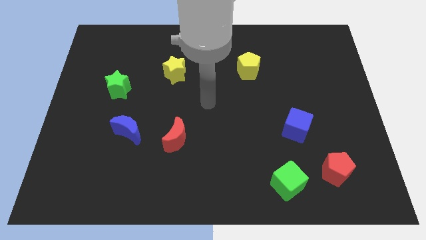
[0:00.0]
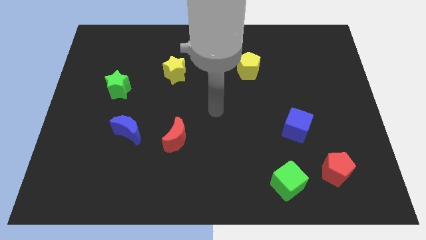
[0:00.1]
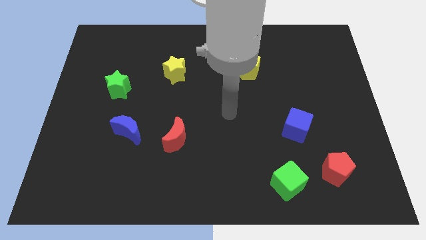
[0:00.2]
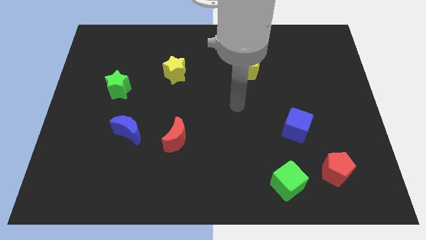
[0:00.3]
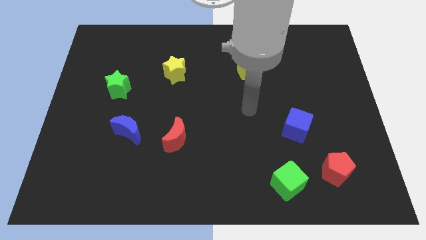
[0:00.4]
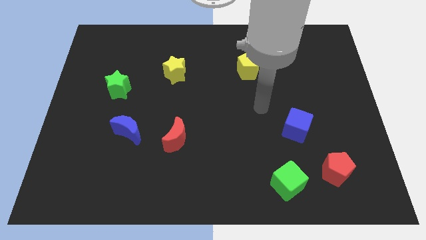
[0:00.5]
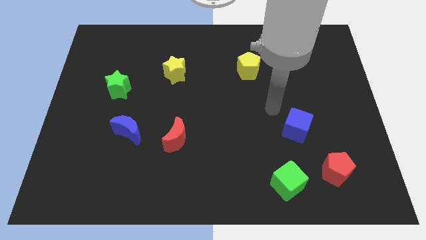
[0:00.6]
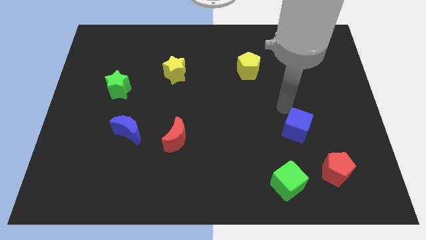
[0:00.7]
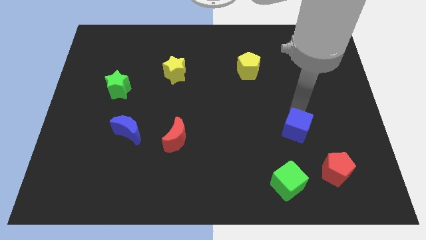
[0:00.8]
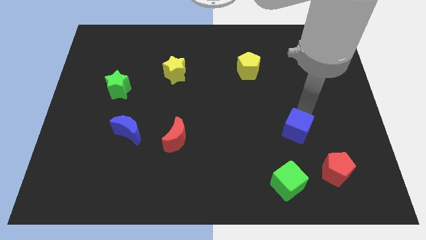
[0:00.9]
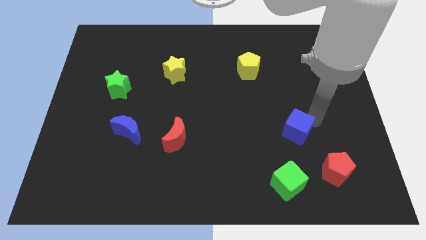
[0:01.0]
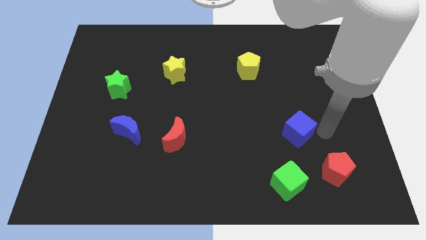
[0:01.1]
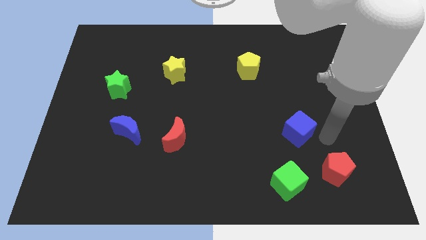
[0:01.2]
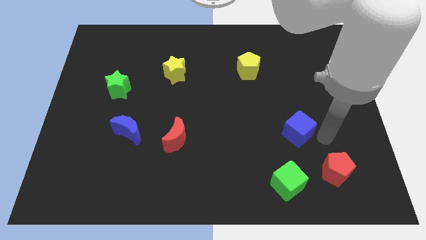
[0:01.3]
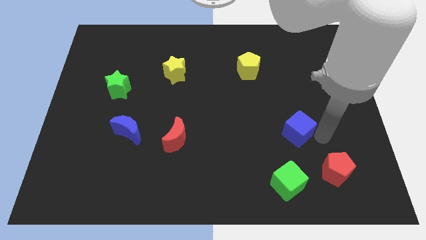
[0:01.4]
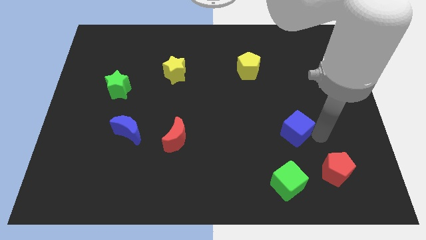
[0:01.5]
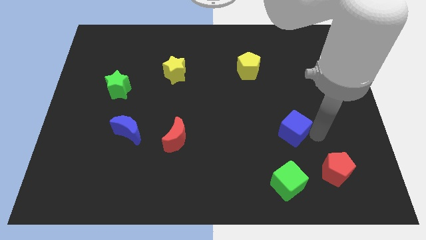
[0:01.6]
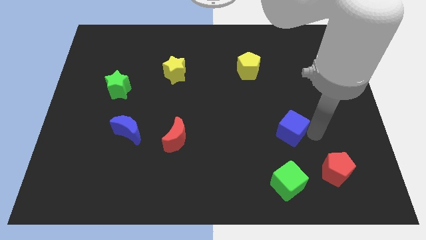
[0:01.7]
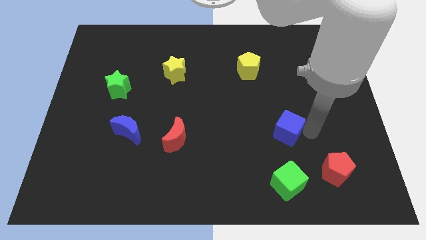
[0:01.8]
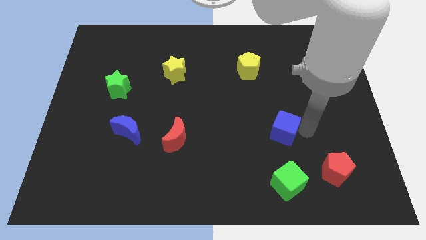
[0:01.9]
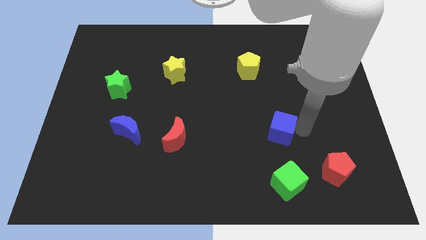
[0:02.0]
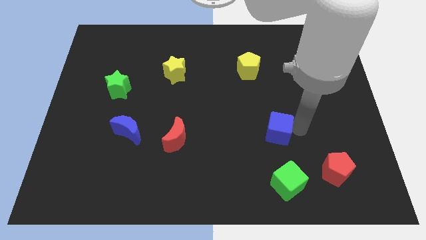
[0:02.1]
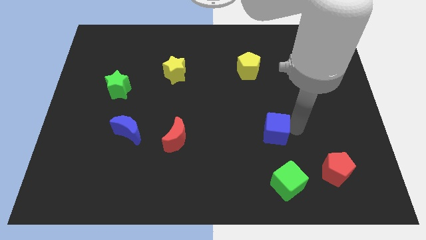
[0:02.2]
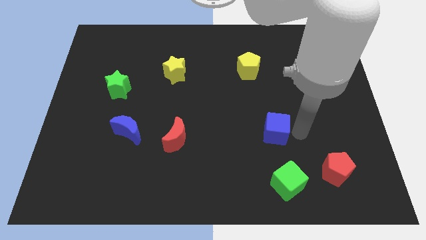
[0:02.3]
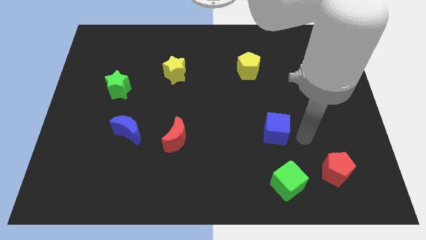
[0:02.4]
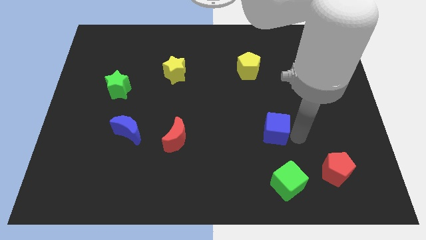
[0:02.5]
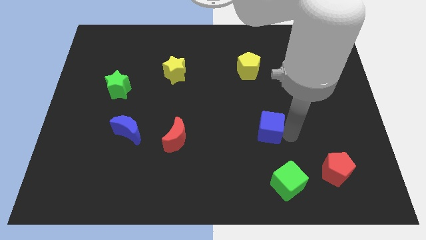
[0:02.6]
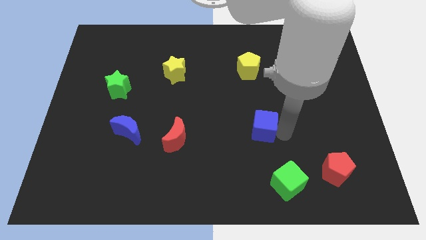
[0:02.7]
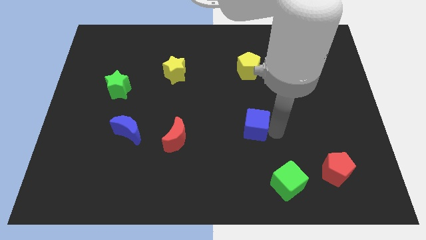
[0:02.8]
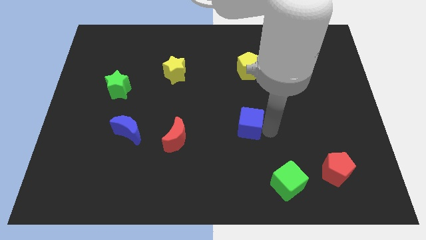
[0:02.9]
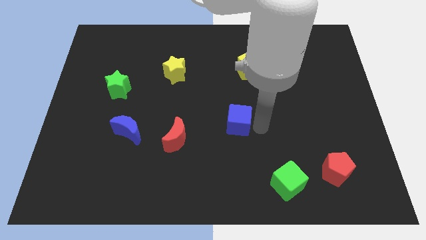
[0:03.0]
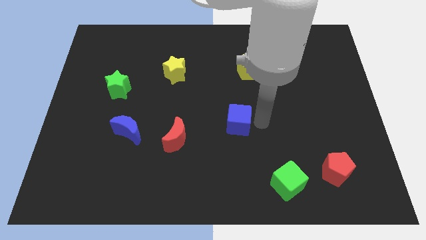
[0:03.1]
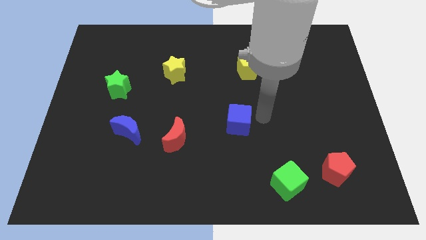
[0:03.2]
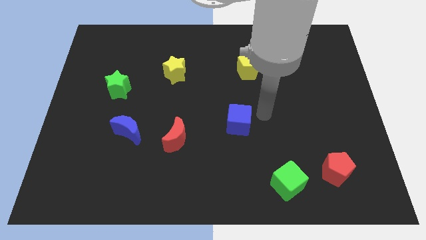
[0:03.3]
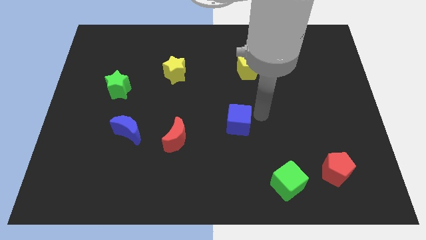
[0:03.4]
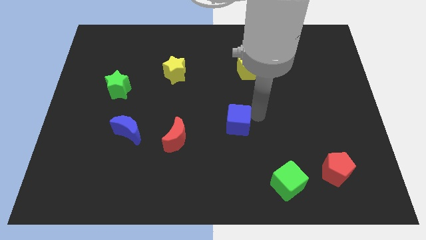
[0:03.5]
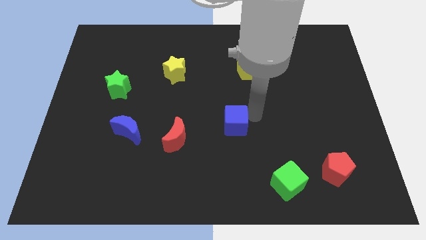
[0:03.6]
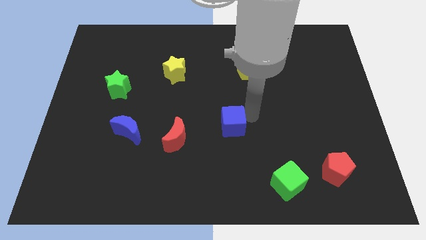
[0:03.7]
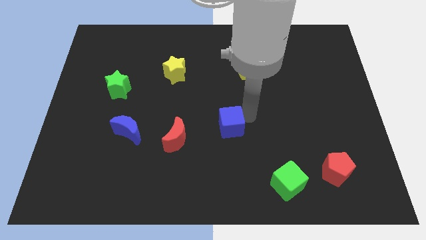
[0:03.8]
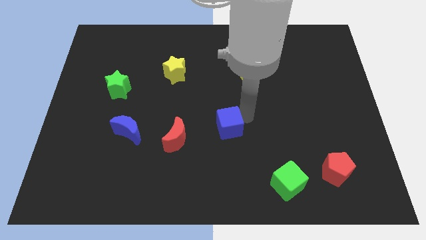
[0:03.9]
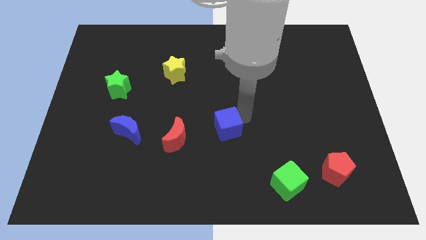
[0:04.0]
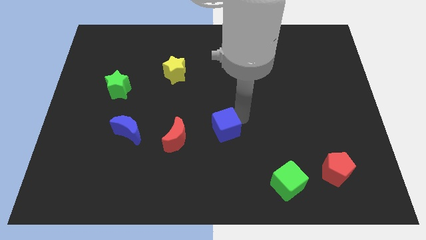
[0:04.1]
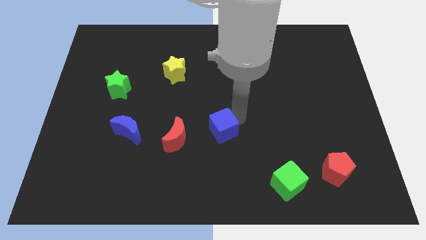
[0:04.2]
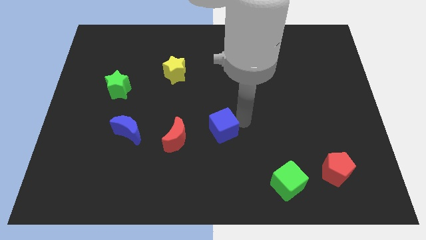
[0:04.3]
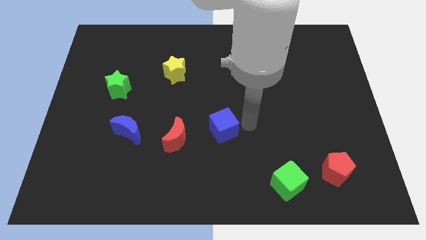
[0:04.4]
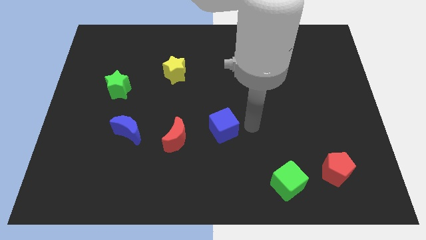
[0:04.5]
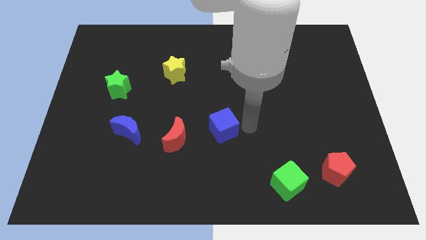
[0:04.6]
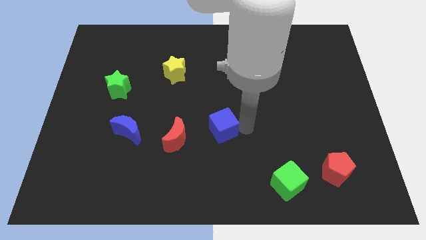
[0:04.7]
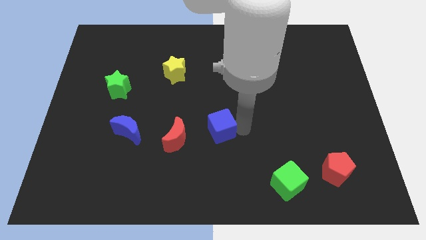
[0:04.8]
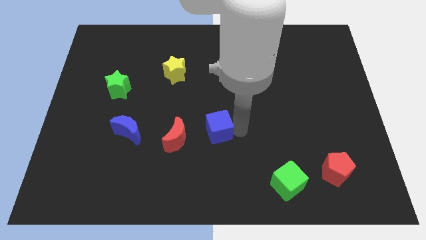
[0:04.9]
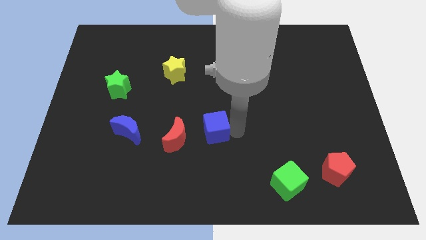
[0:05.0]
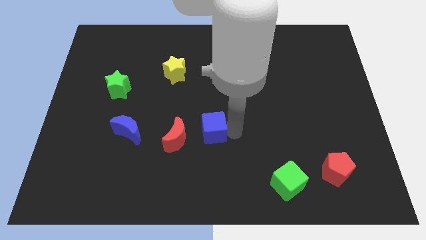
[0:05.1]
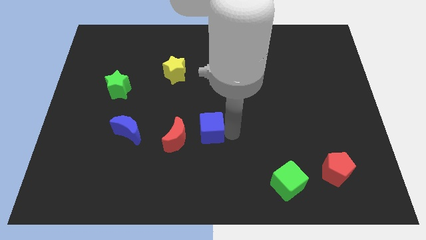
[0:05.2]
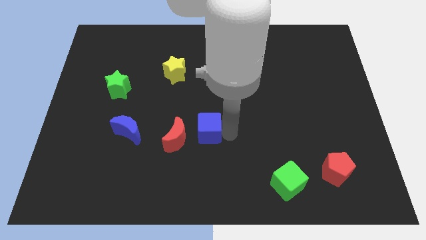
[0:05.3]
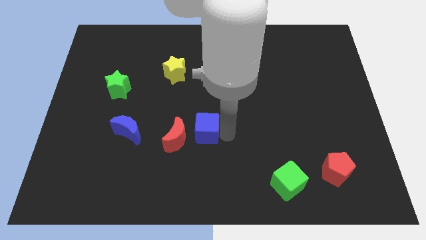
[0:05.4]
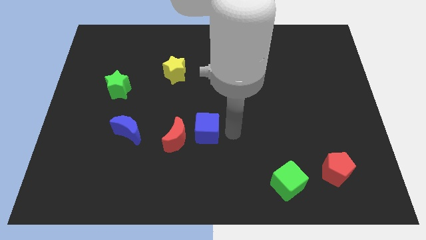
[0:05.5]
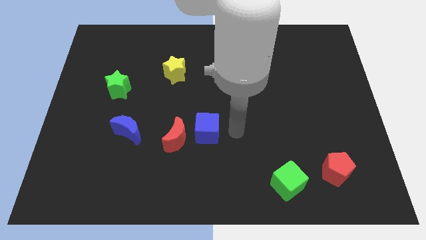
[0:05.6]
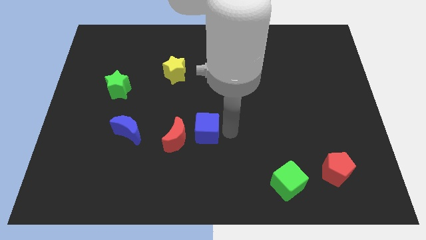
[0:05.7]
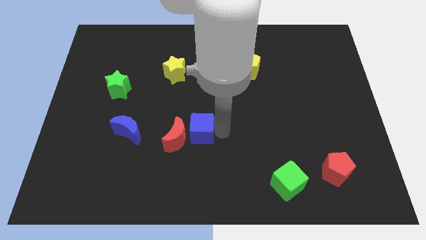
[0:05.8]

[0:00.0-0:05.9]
slide the blue cube right of the blue moon

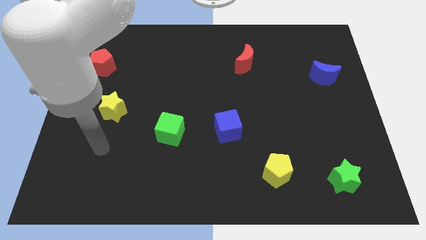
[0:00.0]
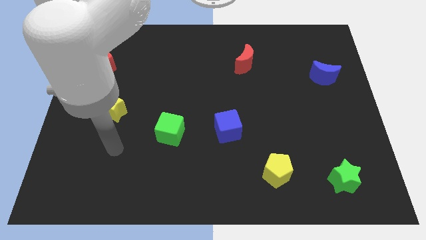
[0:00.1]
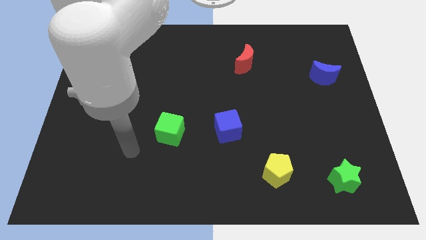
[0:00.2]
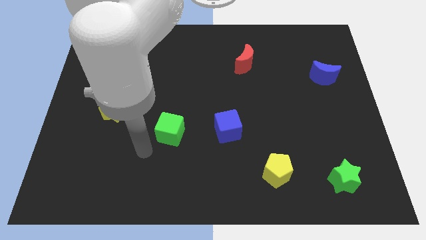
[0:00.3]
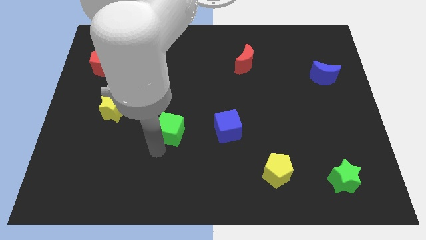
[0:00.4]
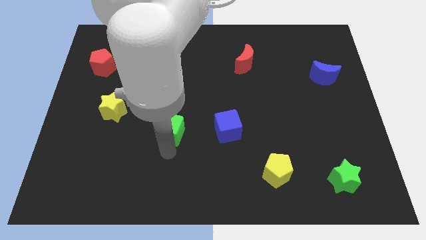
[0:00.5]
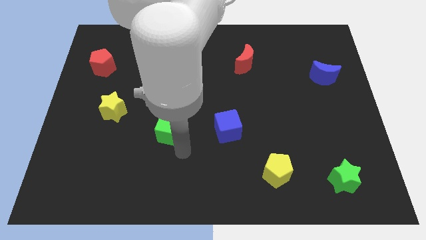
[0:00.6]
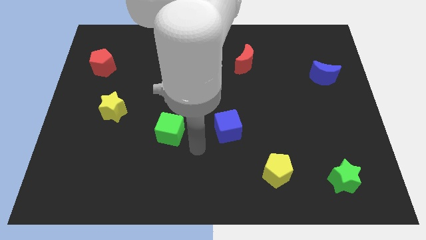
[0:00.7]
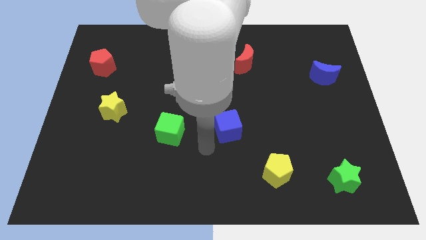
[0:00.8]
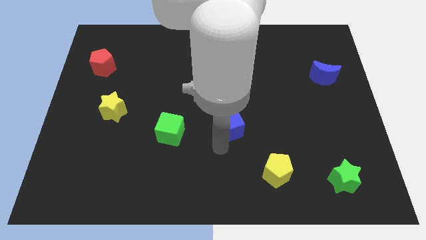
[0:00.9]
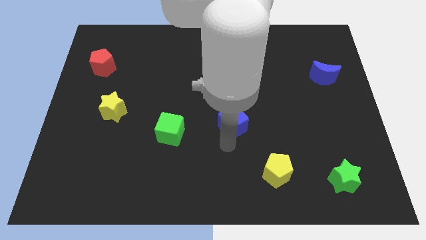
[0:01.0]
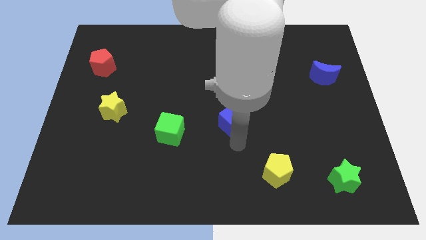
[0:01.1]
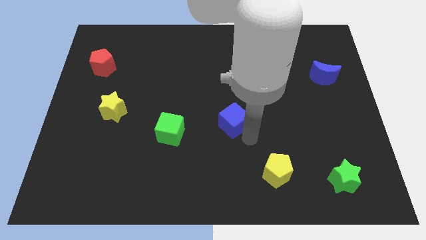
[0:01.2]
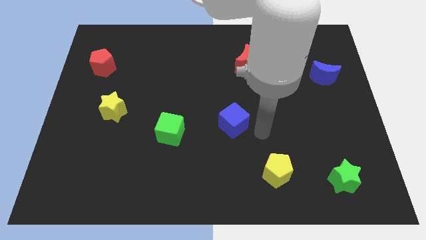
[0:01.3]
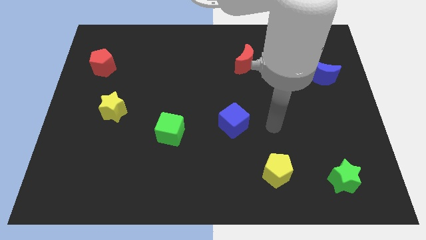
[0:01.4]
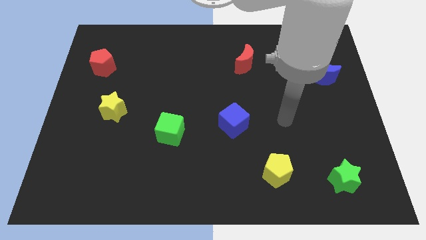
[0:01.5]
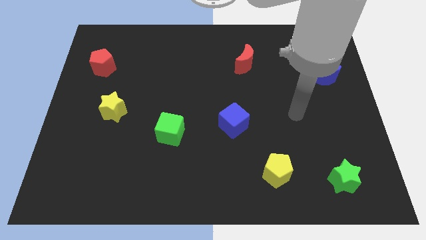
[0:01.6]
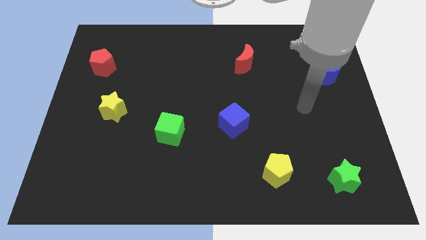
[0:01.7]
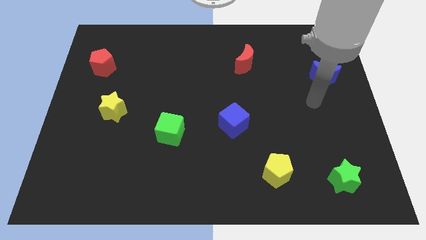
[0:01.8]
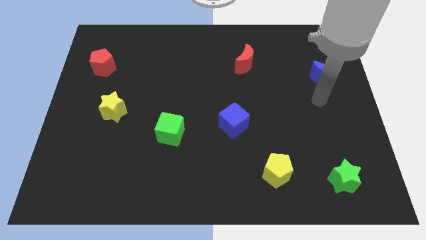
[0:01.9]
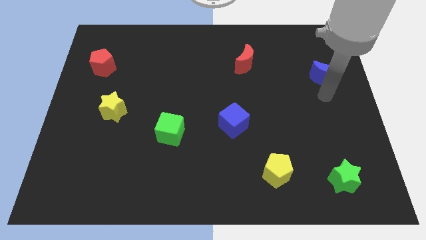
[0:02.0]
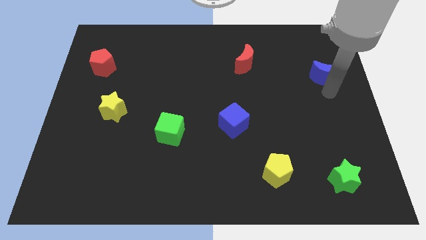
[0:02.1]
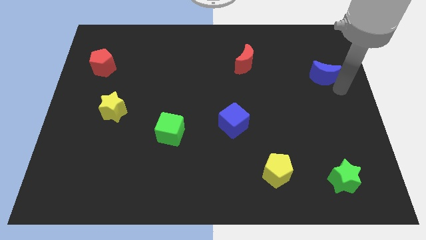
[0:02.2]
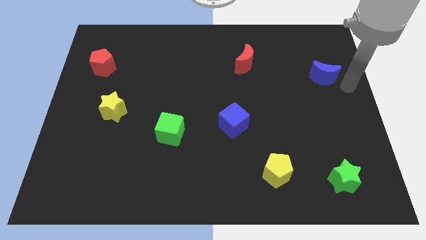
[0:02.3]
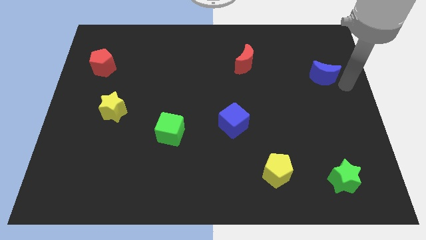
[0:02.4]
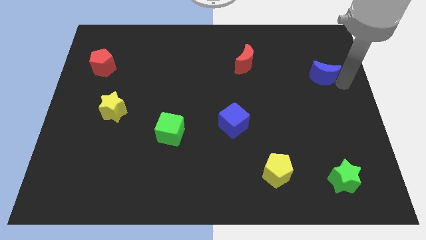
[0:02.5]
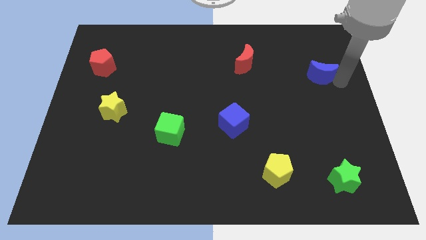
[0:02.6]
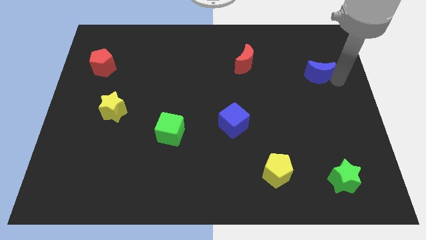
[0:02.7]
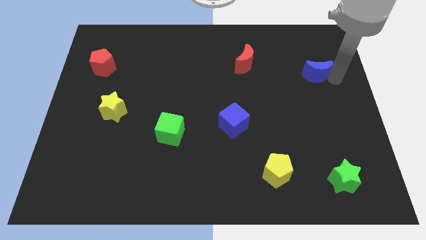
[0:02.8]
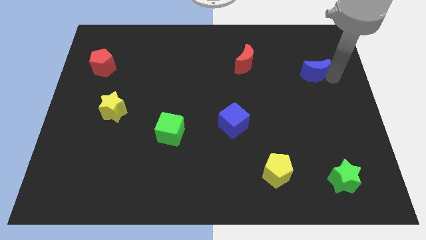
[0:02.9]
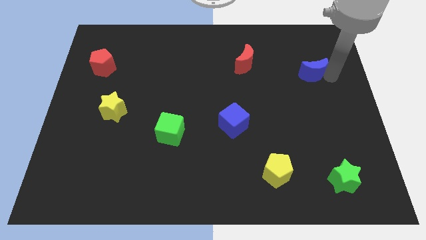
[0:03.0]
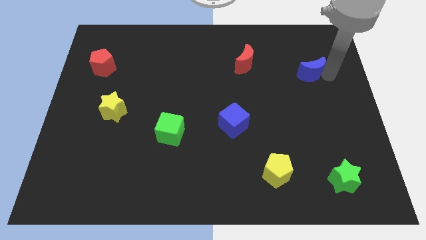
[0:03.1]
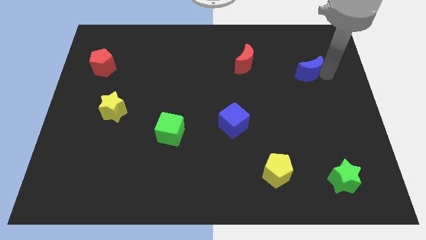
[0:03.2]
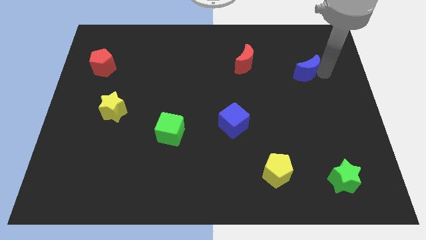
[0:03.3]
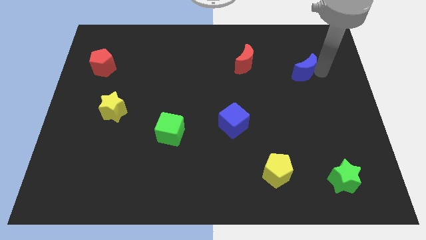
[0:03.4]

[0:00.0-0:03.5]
slide the blue moon to the right of the red moon
